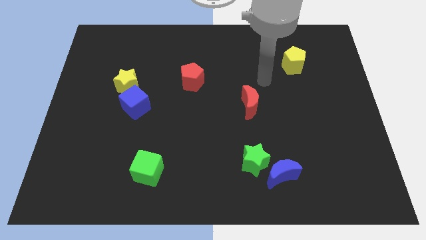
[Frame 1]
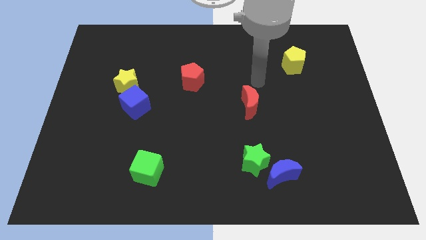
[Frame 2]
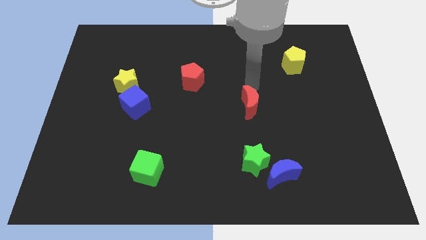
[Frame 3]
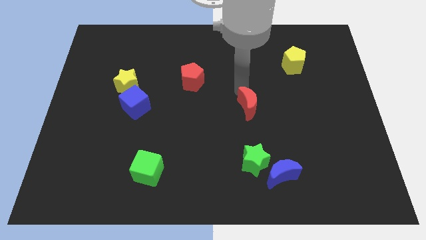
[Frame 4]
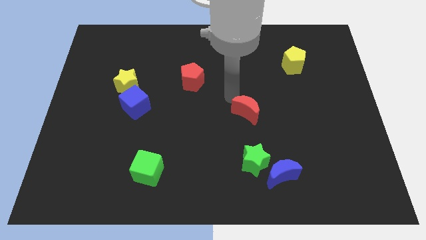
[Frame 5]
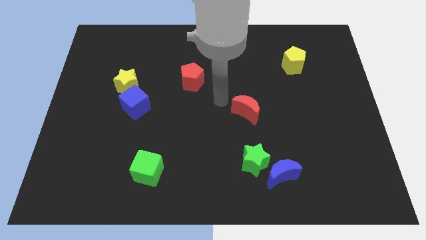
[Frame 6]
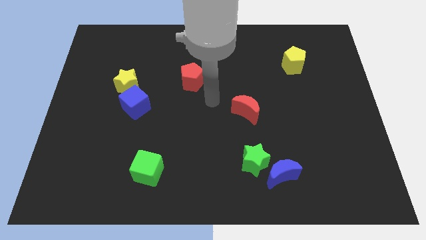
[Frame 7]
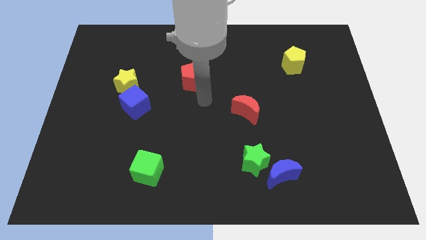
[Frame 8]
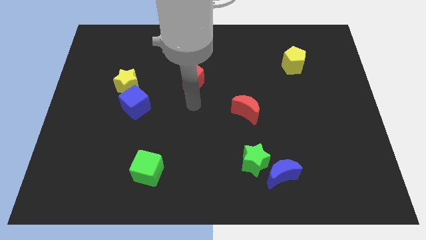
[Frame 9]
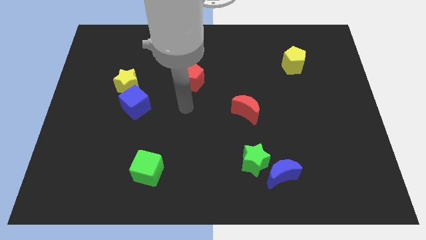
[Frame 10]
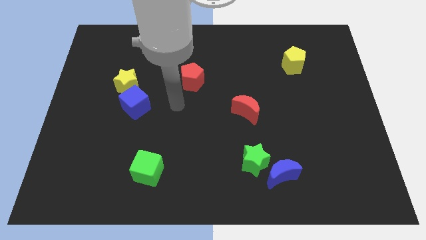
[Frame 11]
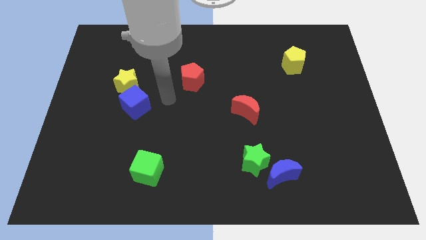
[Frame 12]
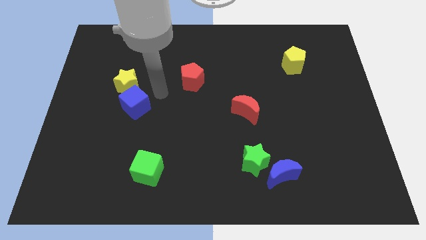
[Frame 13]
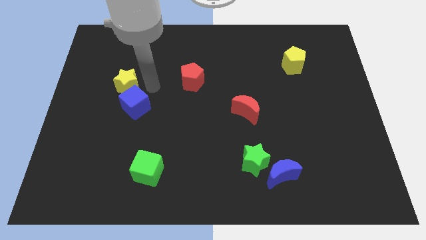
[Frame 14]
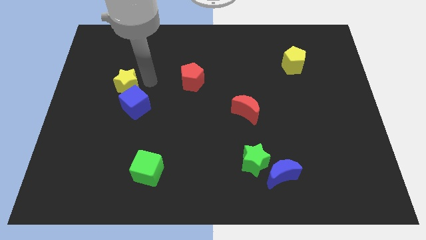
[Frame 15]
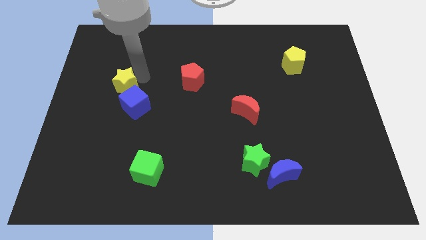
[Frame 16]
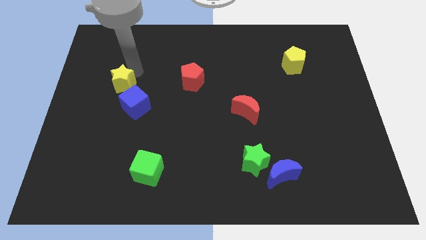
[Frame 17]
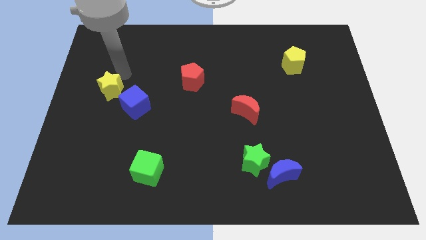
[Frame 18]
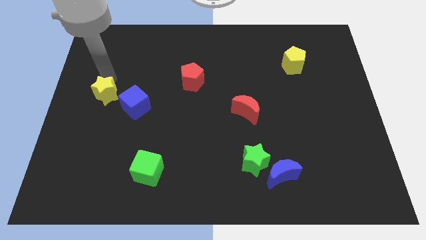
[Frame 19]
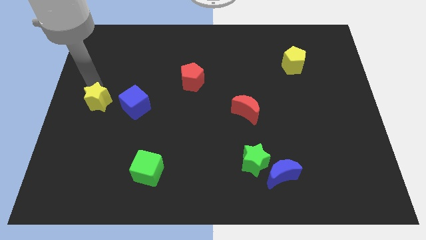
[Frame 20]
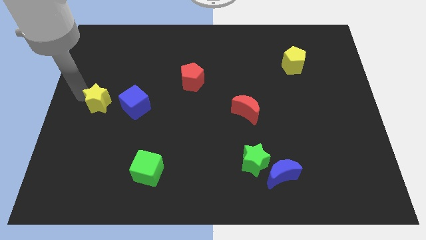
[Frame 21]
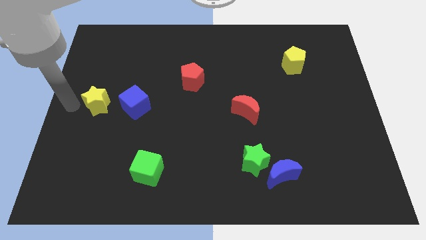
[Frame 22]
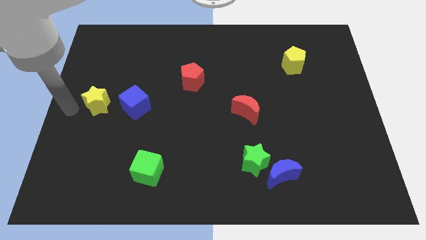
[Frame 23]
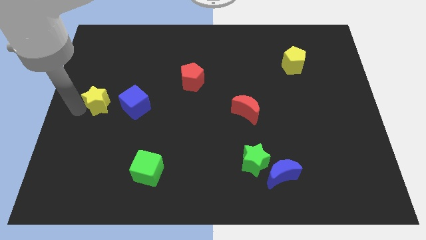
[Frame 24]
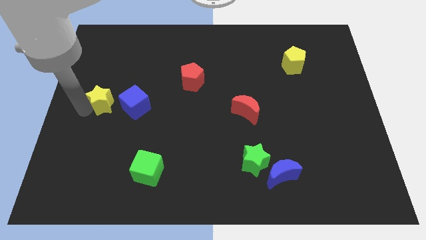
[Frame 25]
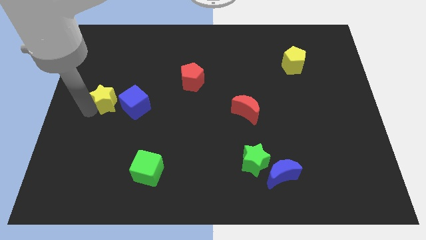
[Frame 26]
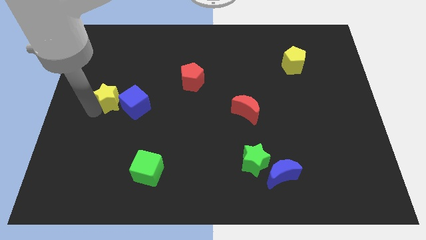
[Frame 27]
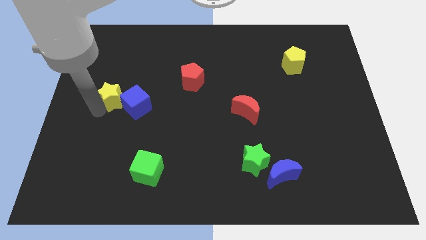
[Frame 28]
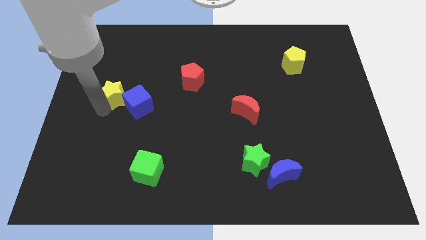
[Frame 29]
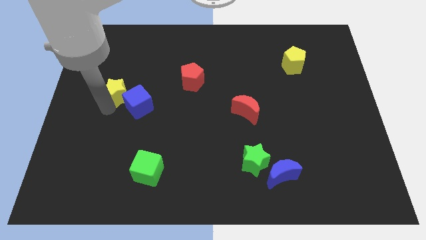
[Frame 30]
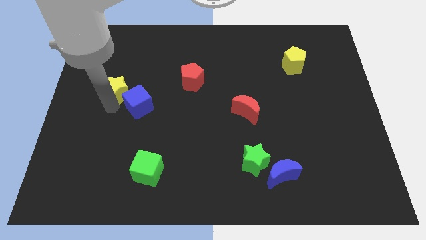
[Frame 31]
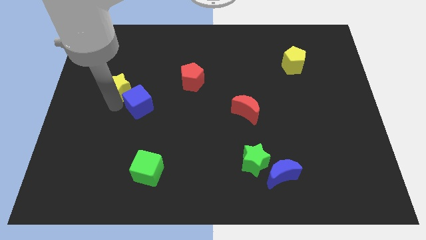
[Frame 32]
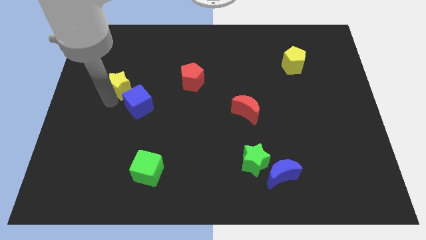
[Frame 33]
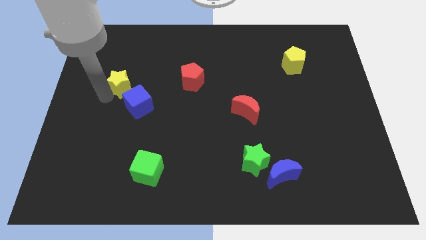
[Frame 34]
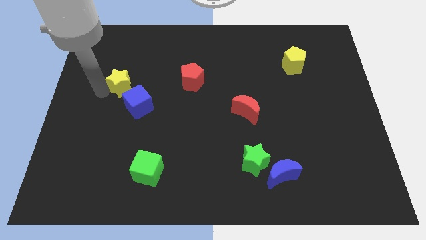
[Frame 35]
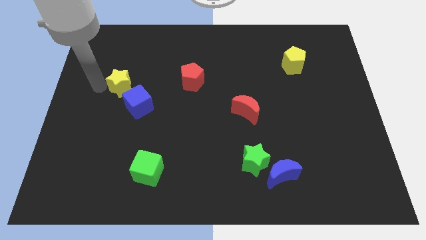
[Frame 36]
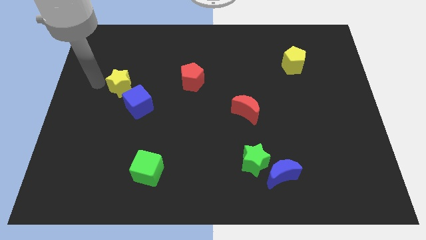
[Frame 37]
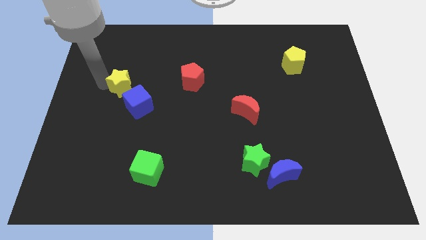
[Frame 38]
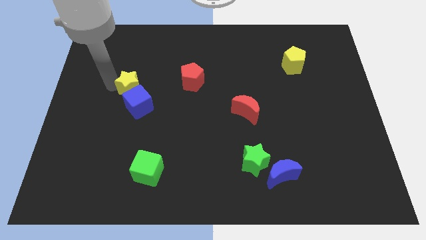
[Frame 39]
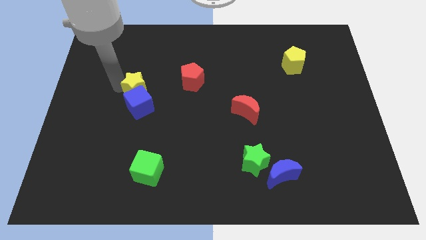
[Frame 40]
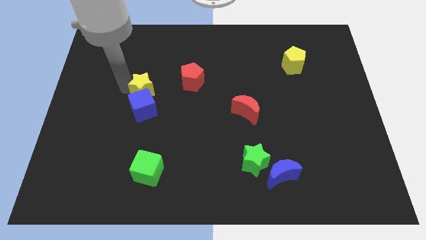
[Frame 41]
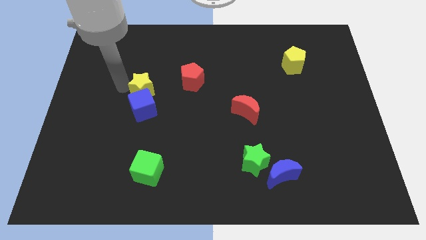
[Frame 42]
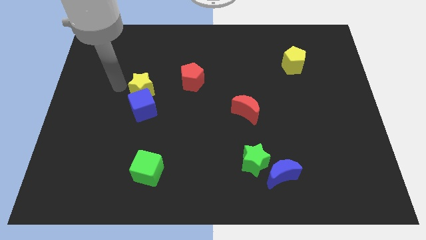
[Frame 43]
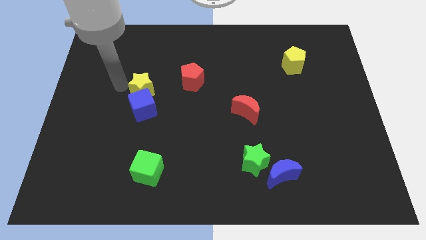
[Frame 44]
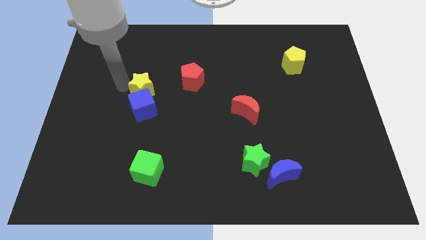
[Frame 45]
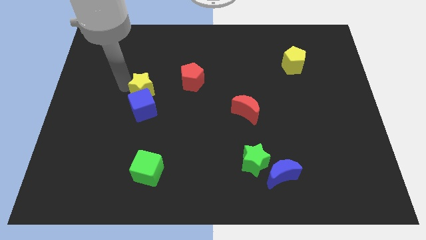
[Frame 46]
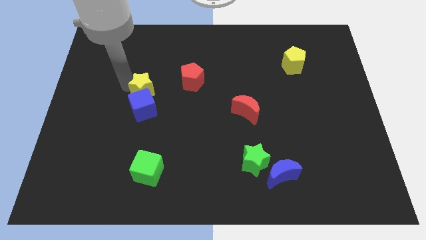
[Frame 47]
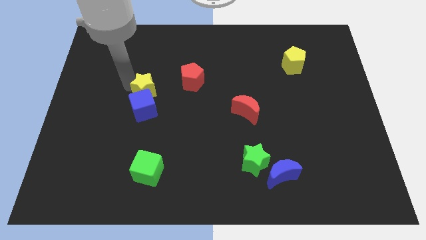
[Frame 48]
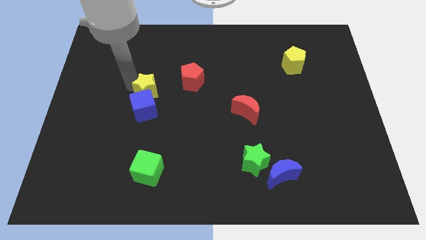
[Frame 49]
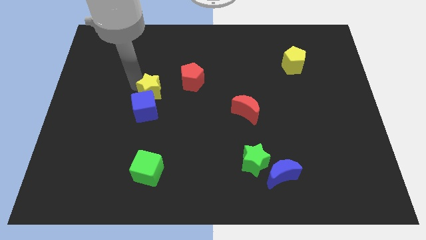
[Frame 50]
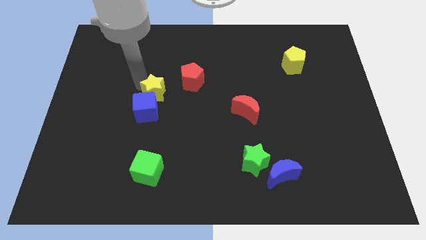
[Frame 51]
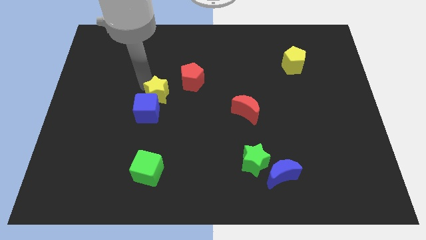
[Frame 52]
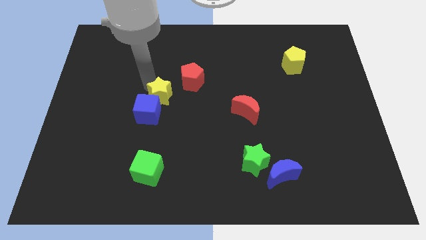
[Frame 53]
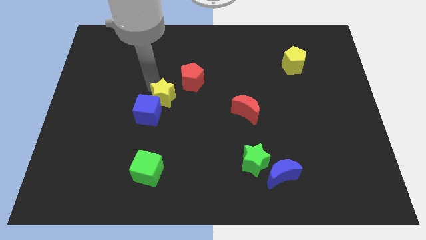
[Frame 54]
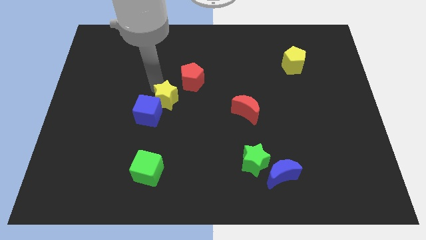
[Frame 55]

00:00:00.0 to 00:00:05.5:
put the yellow star just right of the blue cube

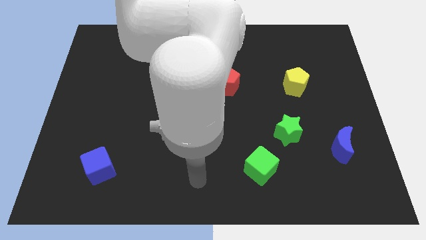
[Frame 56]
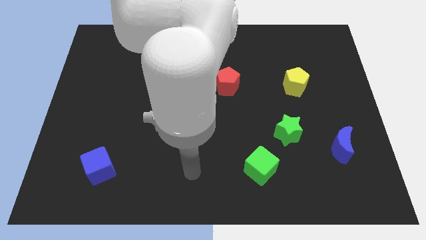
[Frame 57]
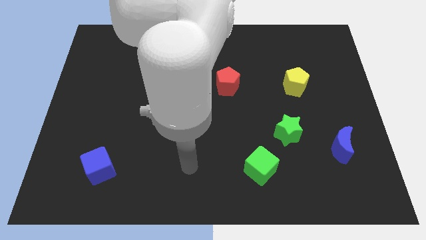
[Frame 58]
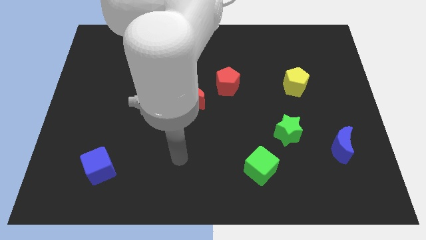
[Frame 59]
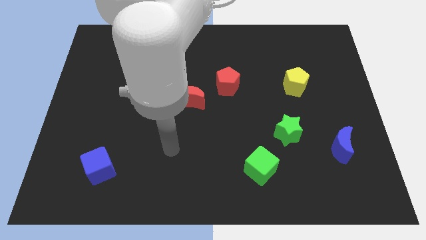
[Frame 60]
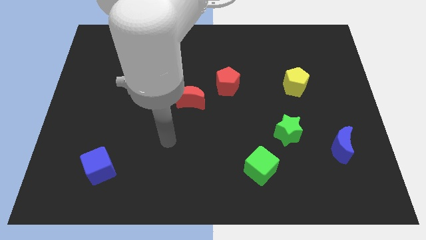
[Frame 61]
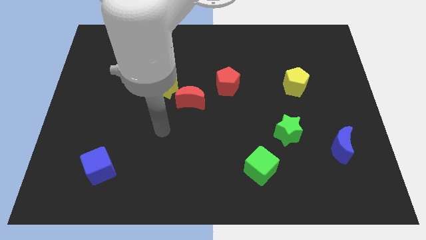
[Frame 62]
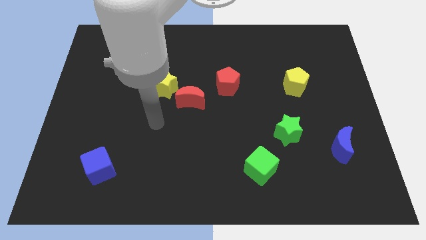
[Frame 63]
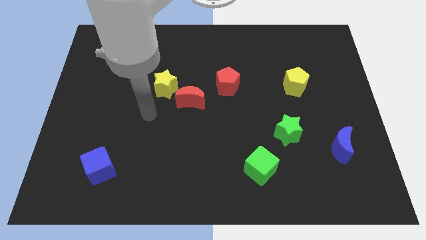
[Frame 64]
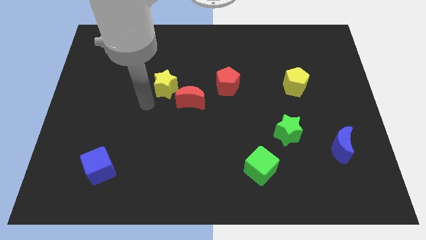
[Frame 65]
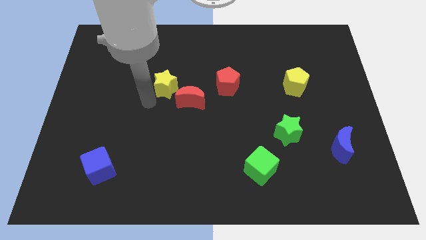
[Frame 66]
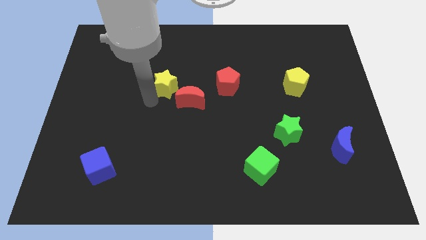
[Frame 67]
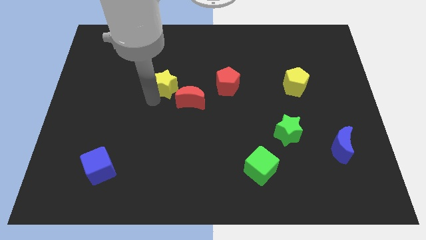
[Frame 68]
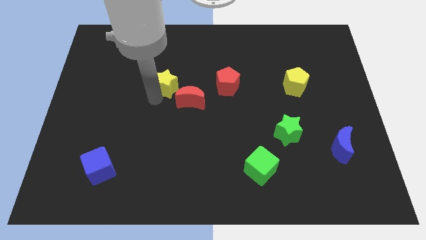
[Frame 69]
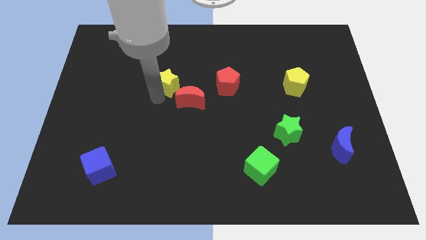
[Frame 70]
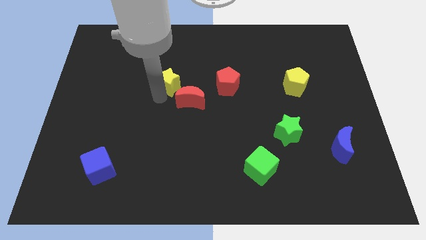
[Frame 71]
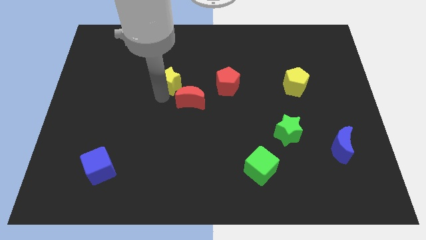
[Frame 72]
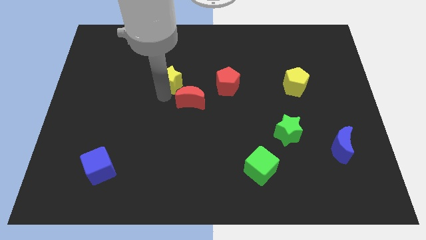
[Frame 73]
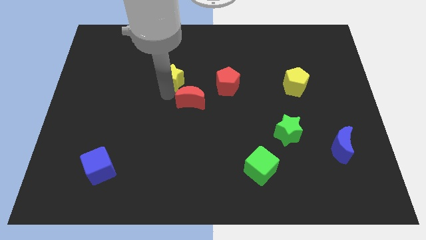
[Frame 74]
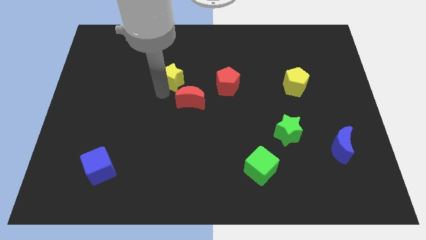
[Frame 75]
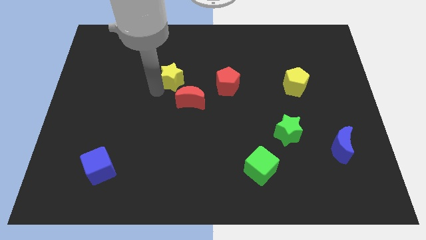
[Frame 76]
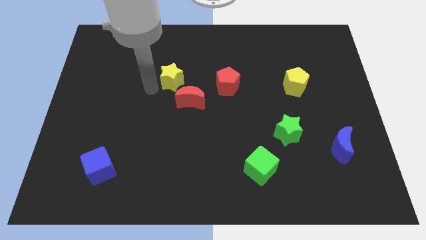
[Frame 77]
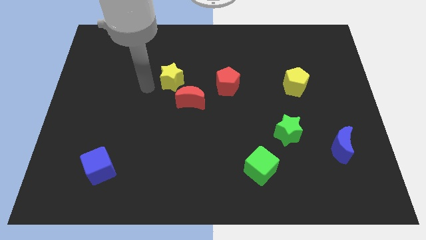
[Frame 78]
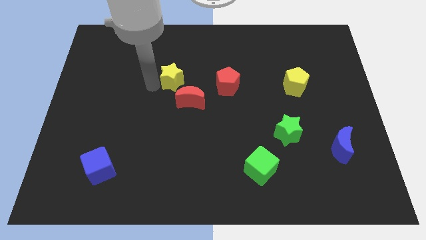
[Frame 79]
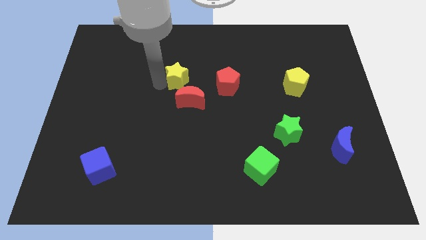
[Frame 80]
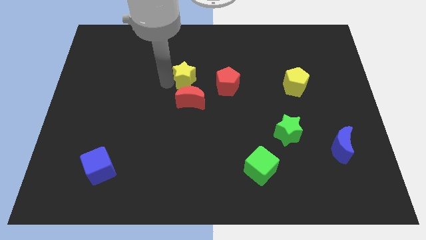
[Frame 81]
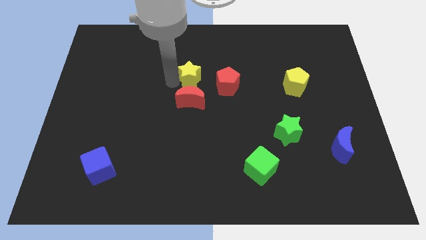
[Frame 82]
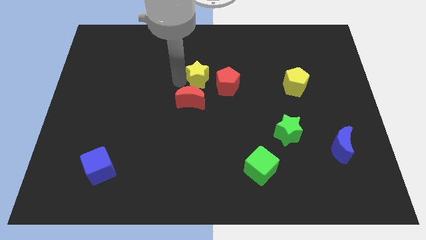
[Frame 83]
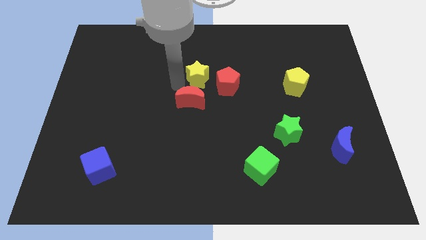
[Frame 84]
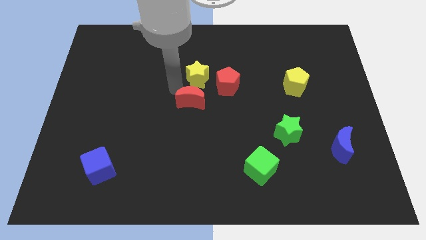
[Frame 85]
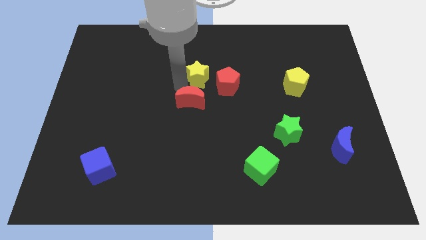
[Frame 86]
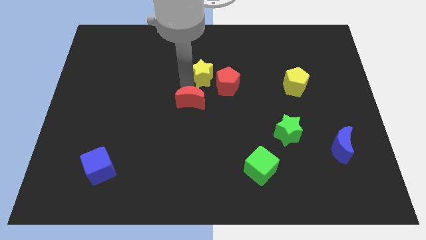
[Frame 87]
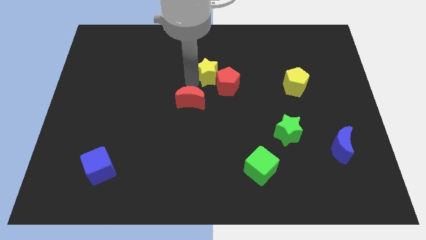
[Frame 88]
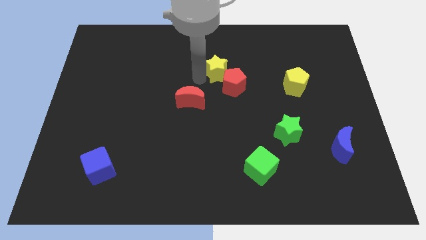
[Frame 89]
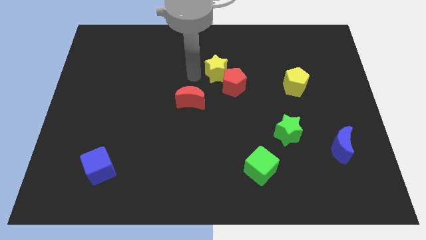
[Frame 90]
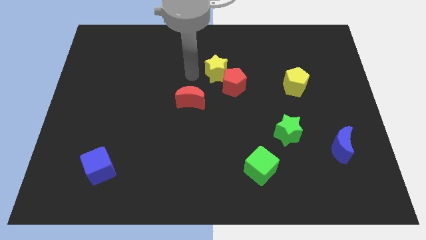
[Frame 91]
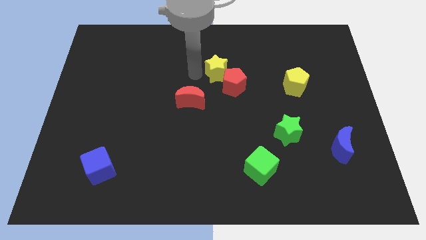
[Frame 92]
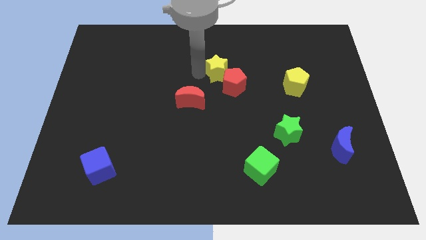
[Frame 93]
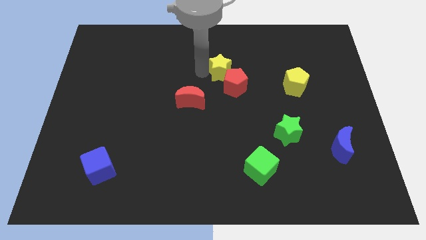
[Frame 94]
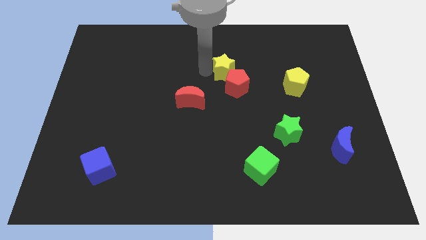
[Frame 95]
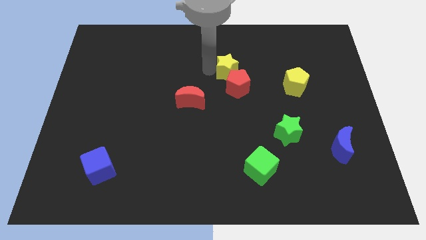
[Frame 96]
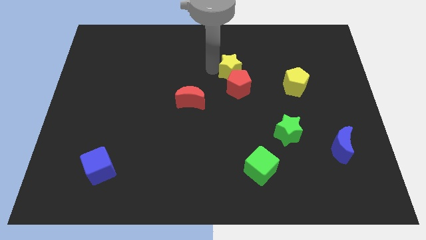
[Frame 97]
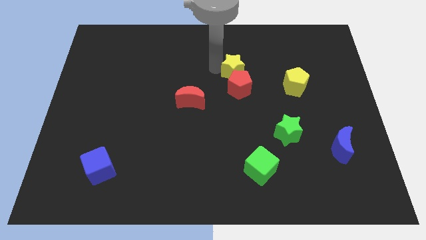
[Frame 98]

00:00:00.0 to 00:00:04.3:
push the yellow star diagonally up and to the right of the red pentagon
